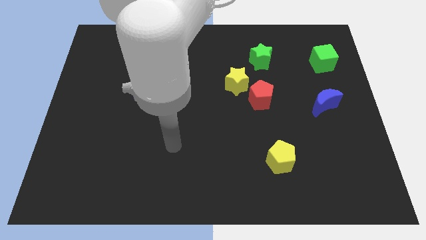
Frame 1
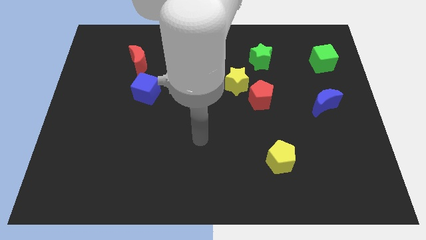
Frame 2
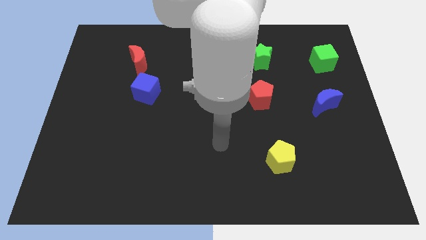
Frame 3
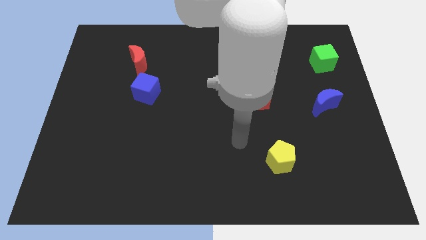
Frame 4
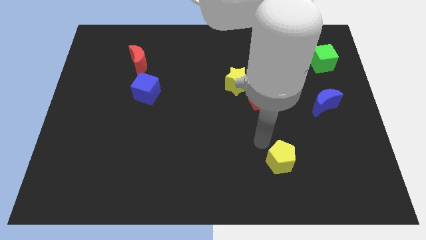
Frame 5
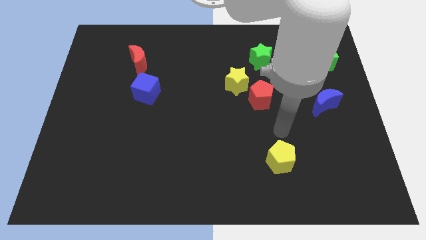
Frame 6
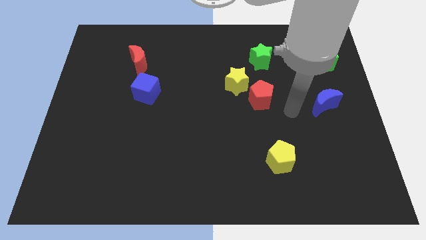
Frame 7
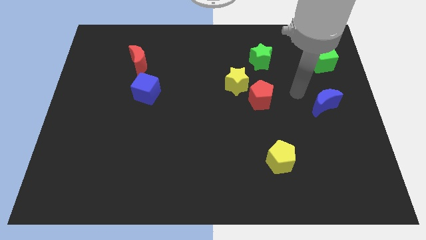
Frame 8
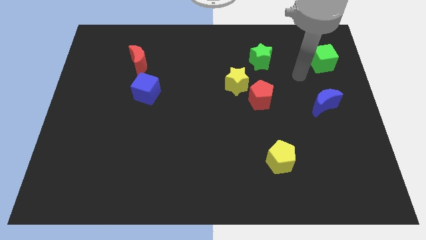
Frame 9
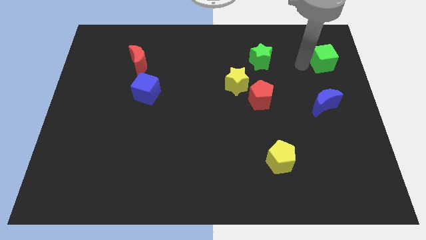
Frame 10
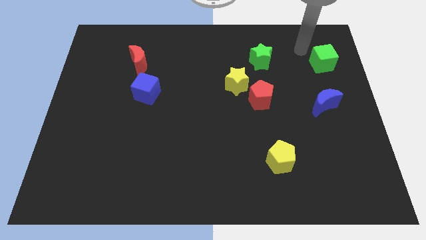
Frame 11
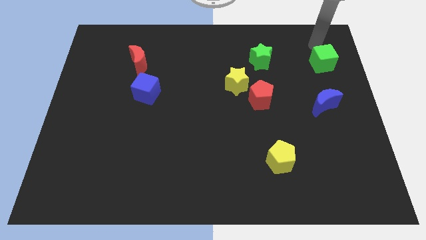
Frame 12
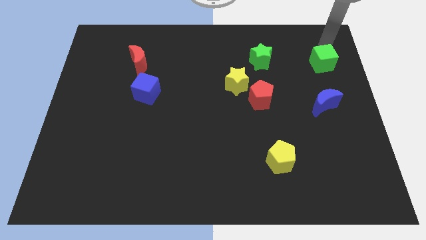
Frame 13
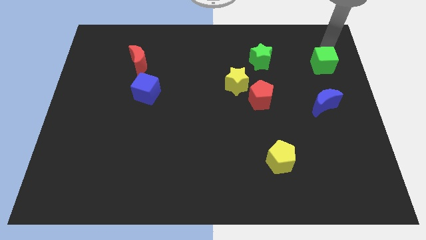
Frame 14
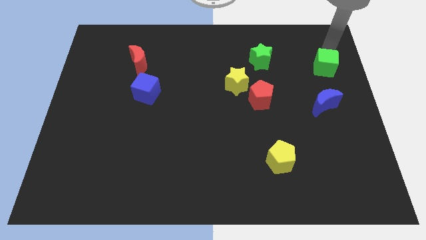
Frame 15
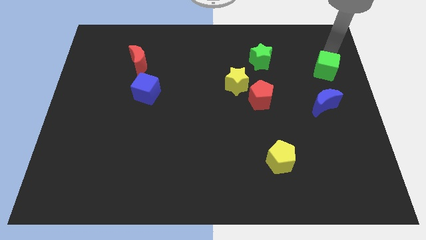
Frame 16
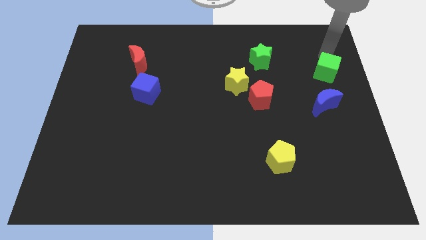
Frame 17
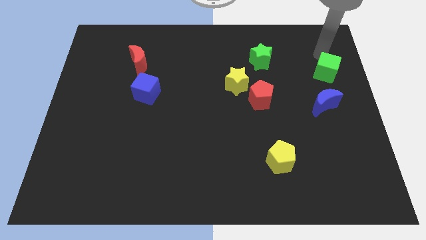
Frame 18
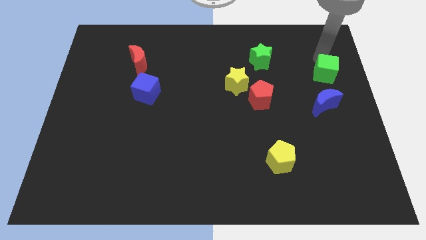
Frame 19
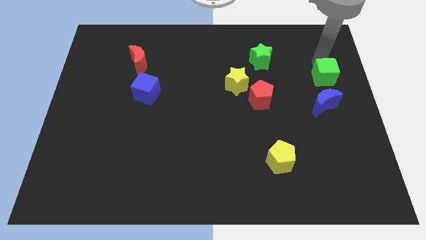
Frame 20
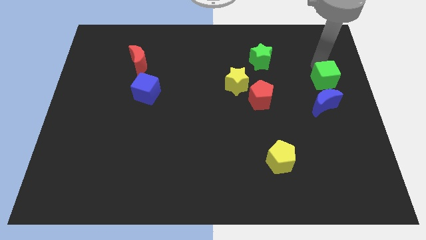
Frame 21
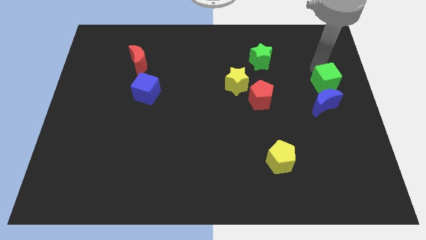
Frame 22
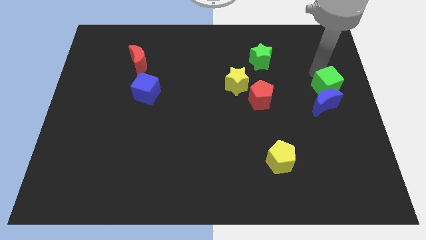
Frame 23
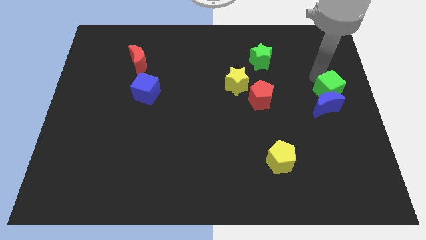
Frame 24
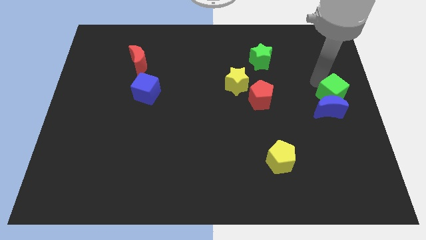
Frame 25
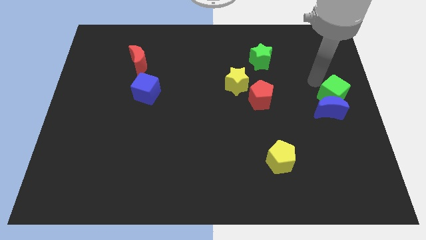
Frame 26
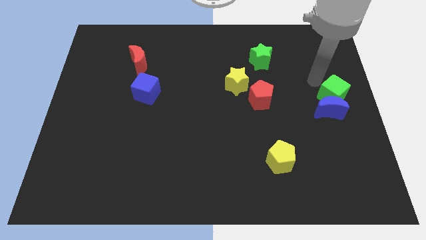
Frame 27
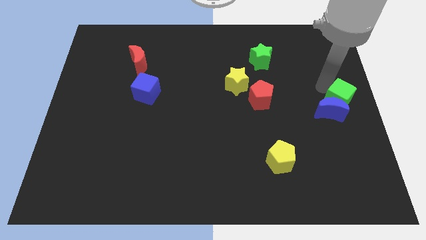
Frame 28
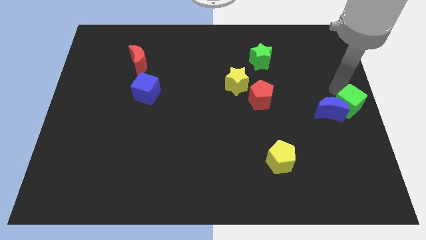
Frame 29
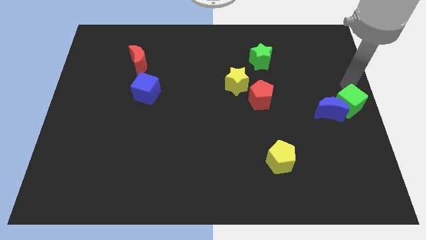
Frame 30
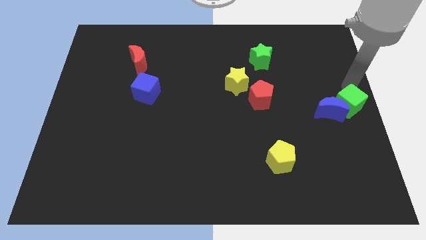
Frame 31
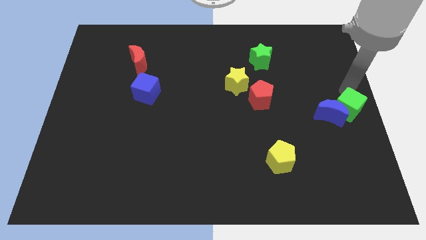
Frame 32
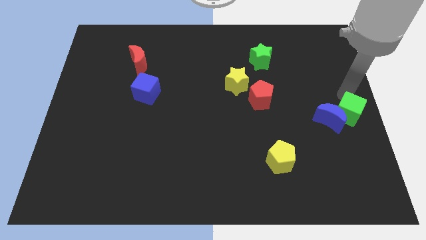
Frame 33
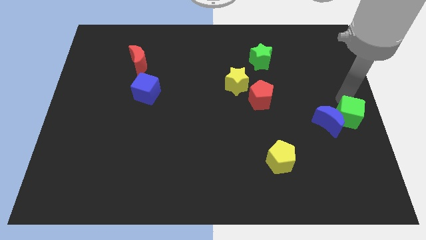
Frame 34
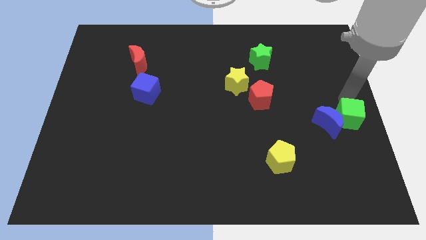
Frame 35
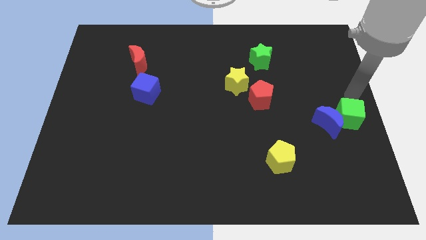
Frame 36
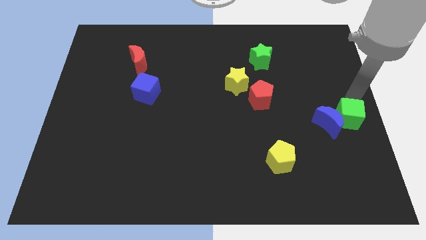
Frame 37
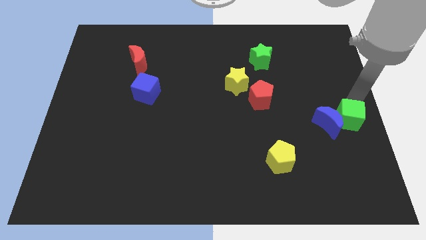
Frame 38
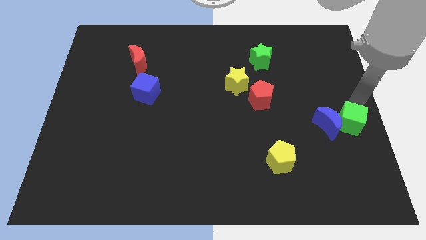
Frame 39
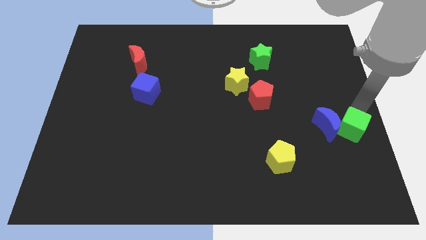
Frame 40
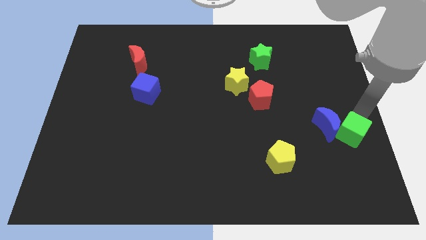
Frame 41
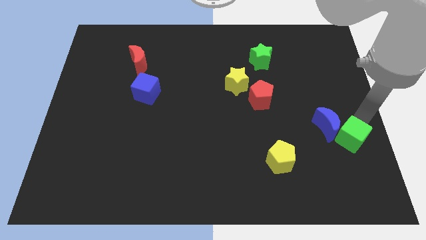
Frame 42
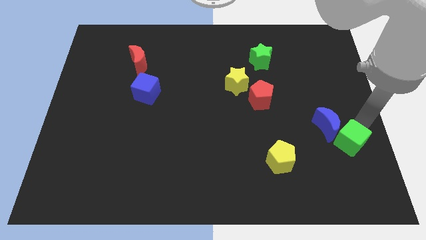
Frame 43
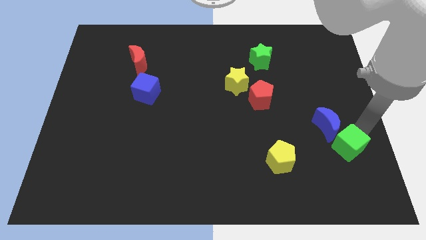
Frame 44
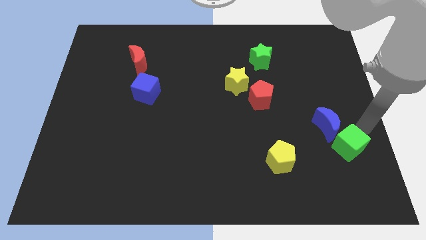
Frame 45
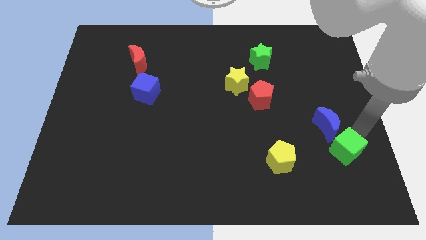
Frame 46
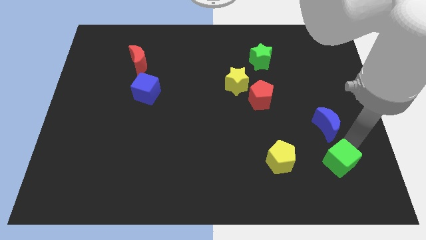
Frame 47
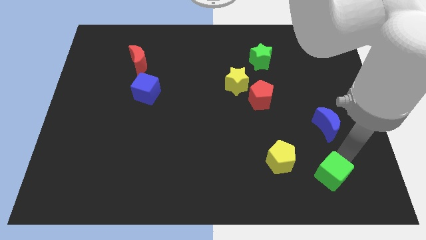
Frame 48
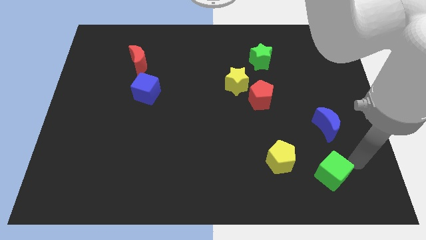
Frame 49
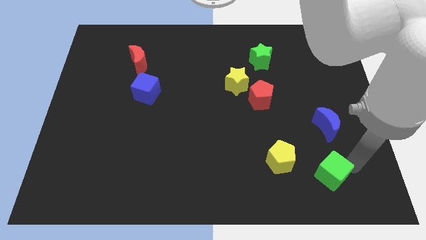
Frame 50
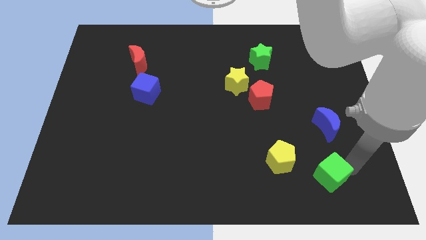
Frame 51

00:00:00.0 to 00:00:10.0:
move the green cube diagonally down and to the right of the yellow pentagon

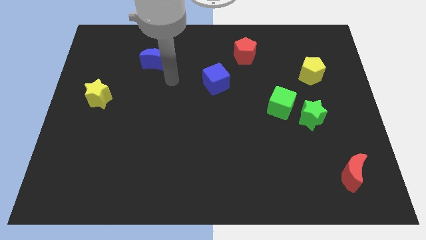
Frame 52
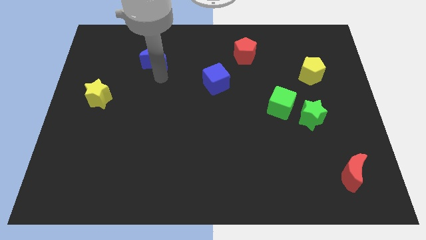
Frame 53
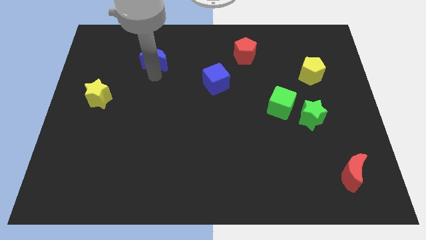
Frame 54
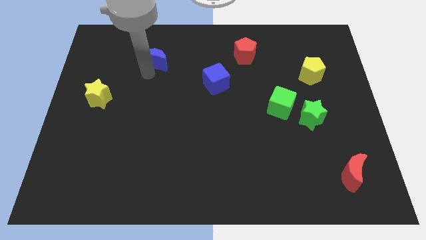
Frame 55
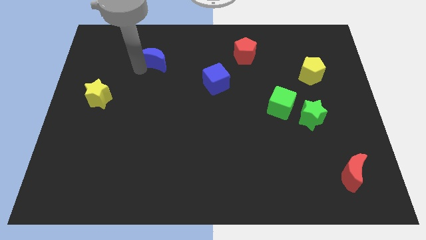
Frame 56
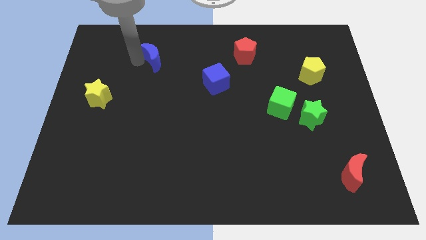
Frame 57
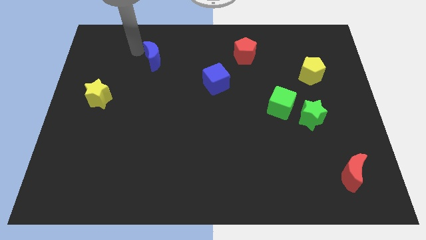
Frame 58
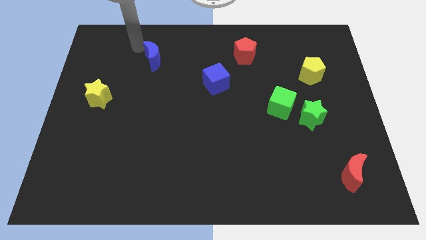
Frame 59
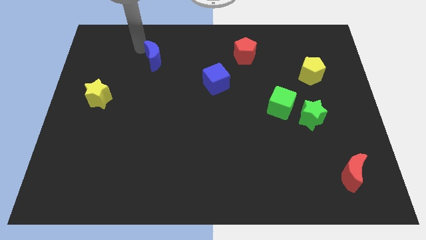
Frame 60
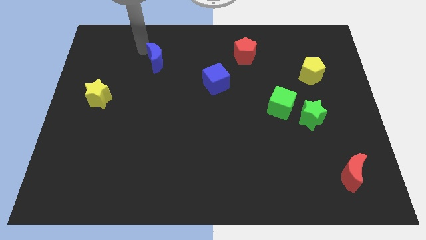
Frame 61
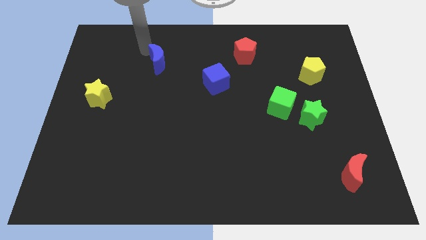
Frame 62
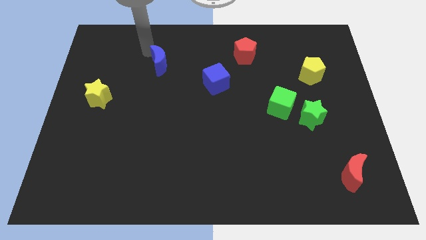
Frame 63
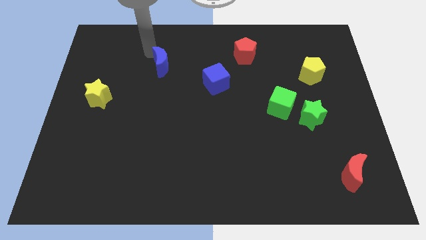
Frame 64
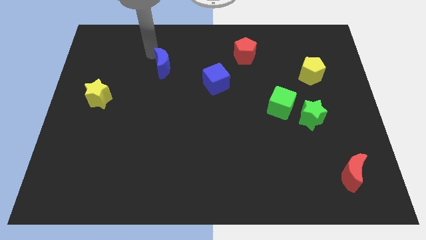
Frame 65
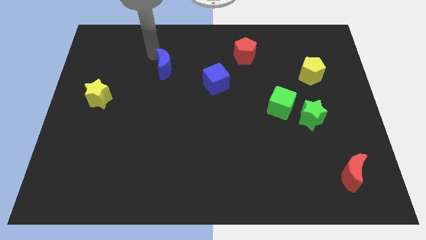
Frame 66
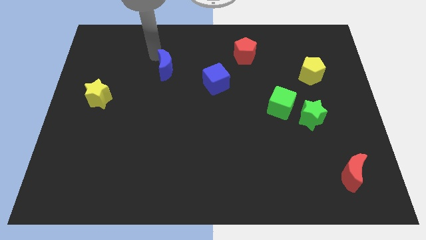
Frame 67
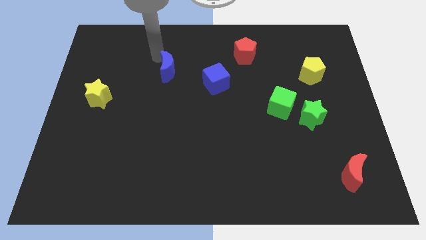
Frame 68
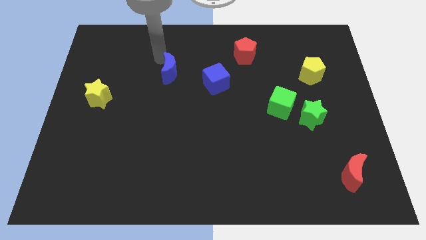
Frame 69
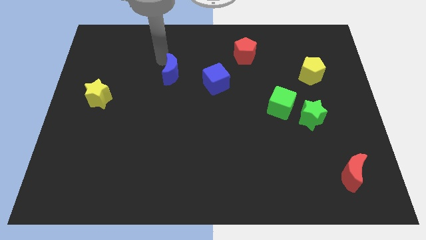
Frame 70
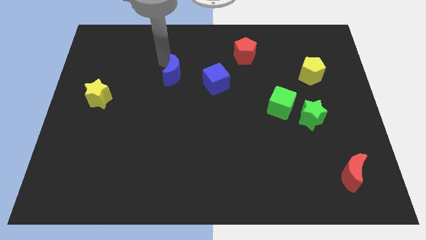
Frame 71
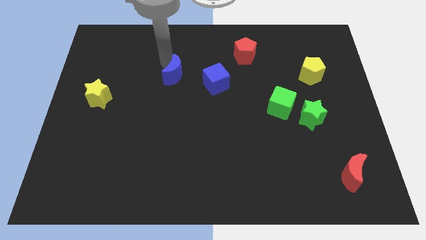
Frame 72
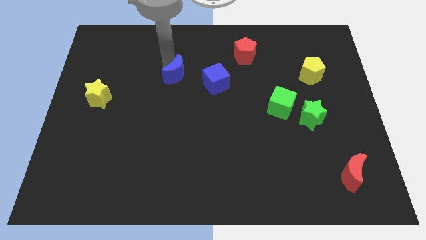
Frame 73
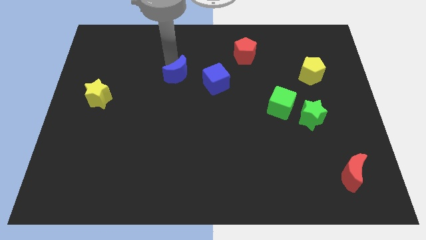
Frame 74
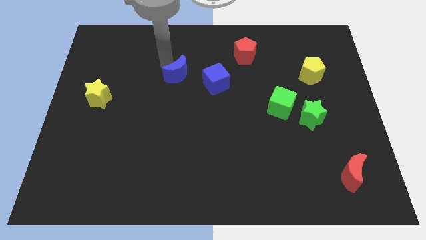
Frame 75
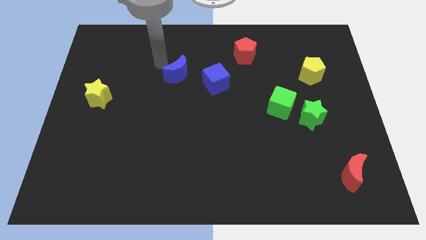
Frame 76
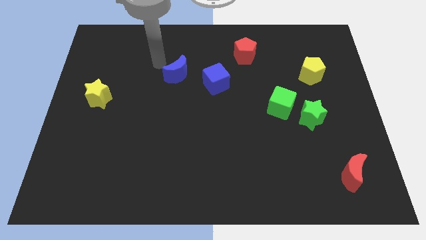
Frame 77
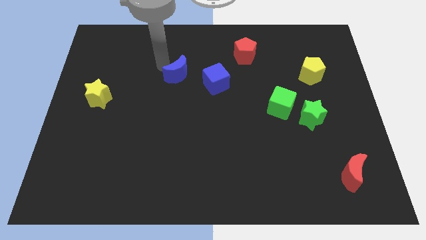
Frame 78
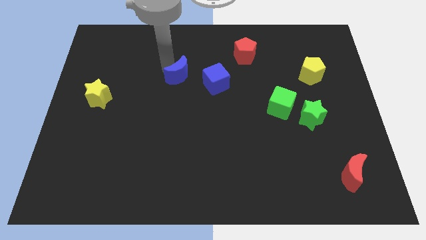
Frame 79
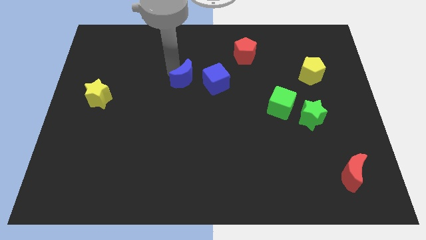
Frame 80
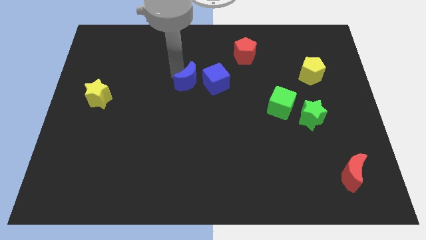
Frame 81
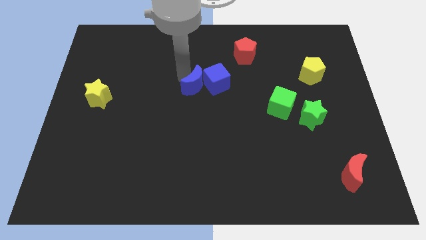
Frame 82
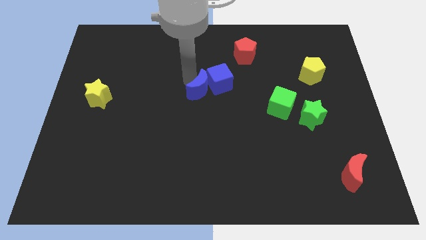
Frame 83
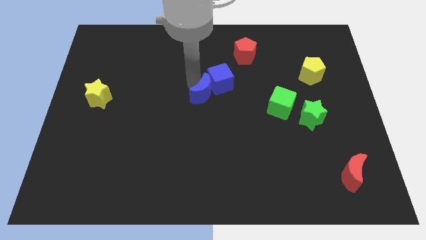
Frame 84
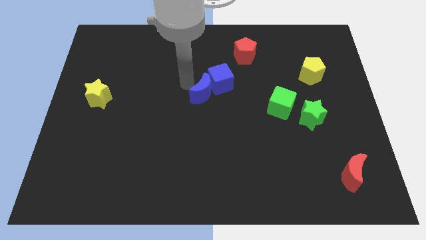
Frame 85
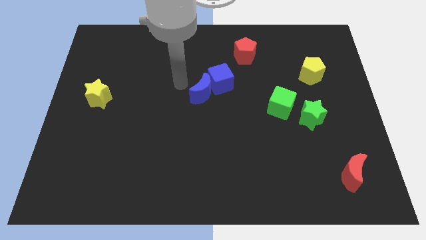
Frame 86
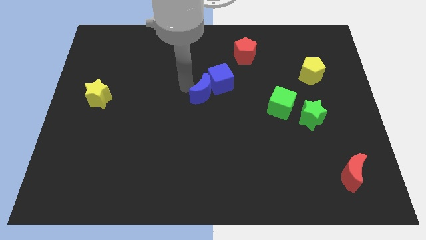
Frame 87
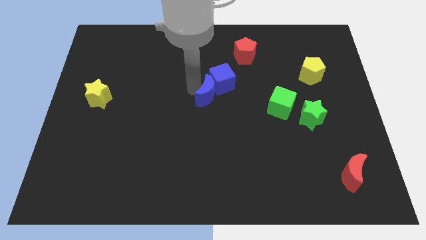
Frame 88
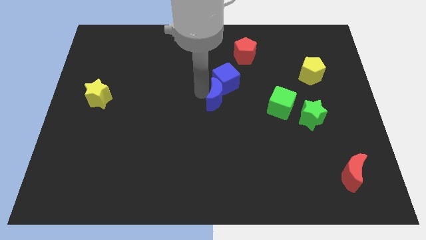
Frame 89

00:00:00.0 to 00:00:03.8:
move the blue moon just left of the green cube
